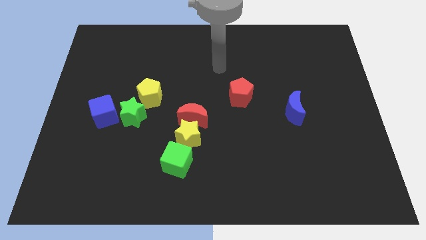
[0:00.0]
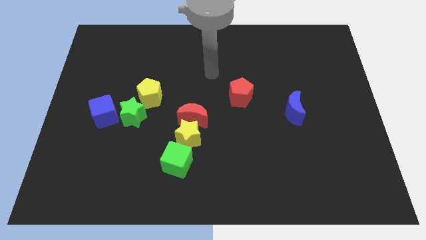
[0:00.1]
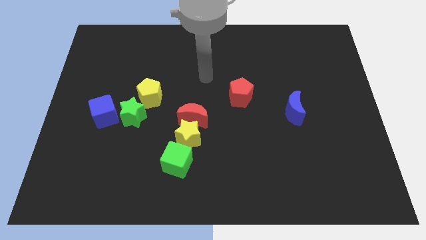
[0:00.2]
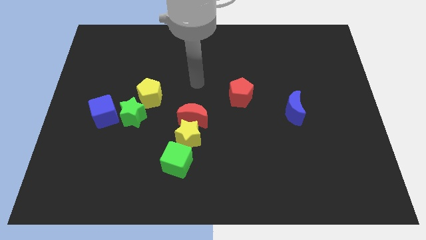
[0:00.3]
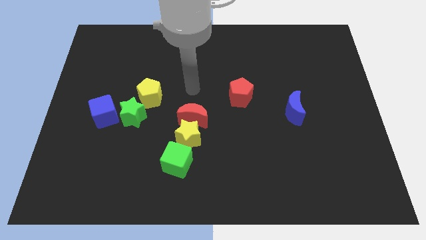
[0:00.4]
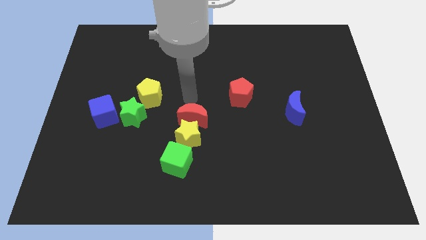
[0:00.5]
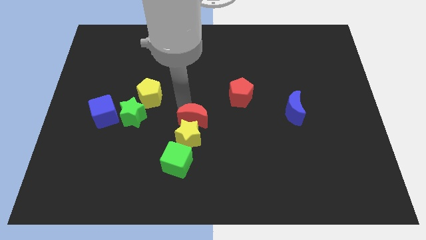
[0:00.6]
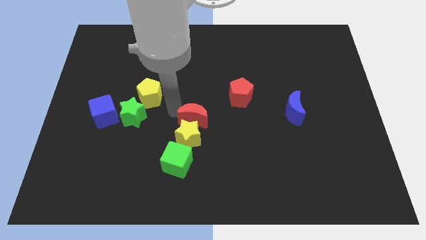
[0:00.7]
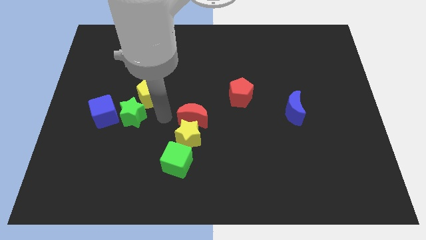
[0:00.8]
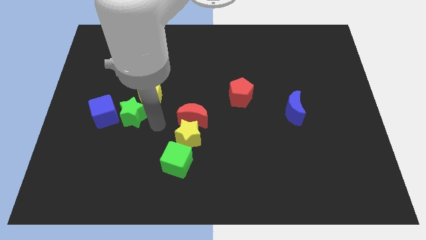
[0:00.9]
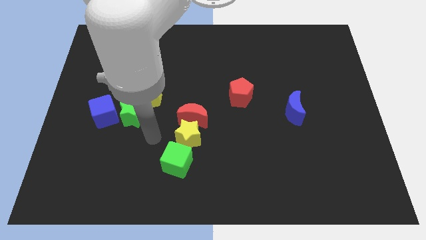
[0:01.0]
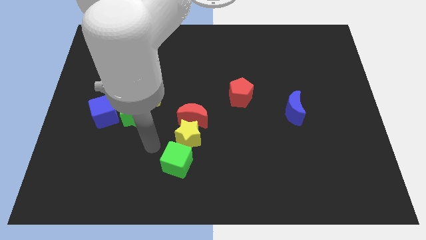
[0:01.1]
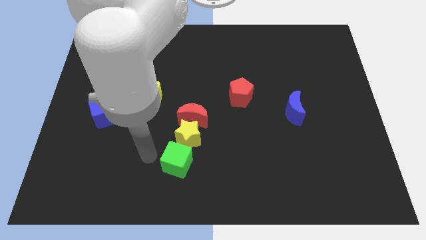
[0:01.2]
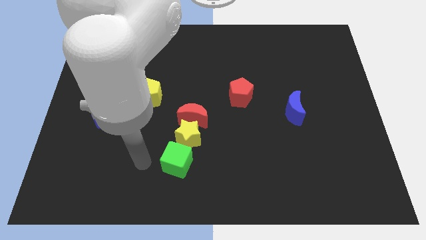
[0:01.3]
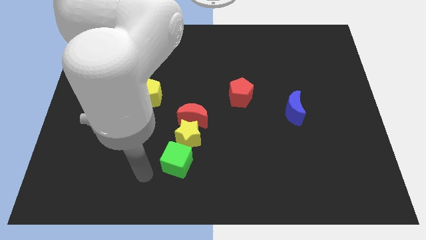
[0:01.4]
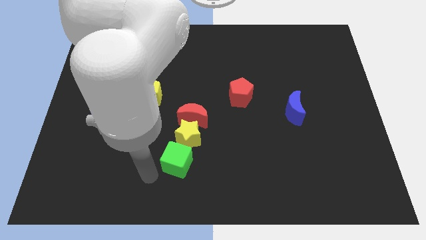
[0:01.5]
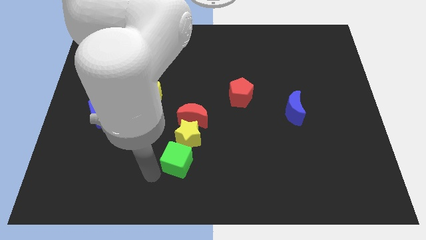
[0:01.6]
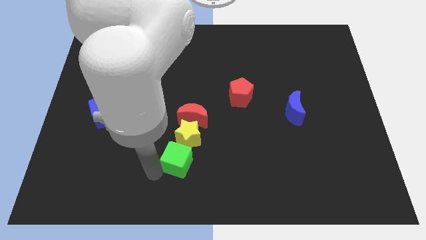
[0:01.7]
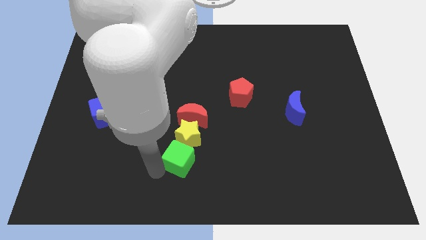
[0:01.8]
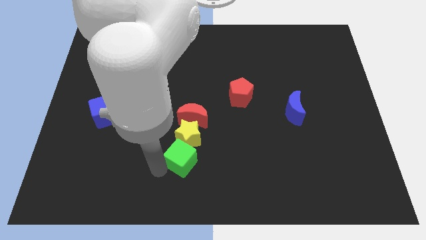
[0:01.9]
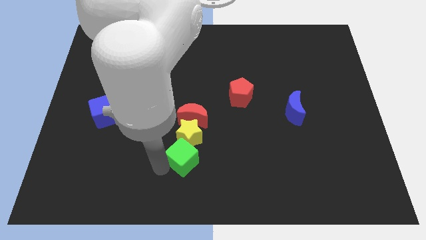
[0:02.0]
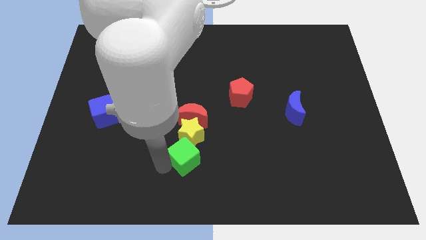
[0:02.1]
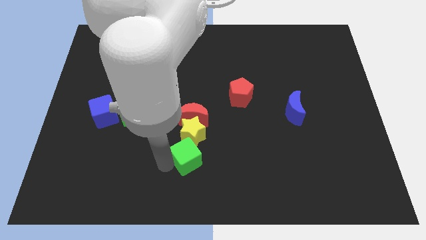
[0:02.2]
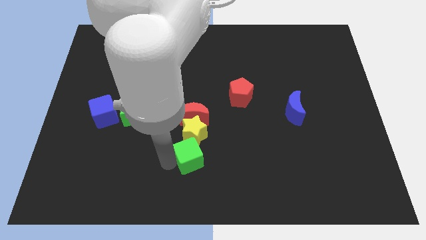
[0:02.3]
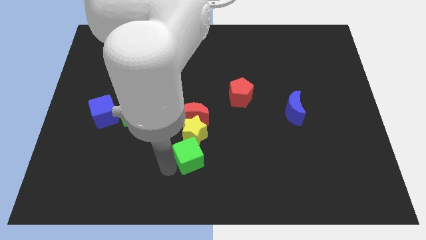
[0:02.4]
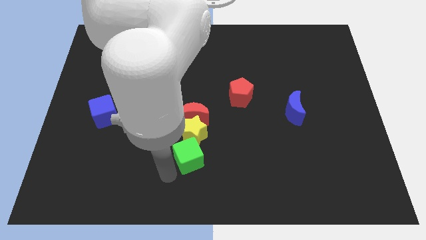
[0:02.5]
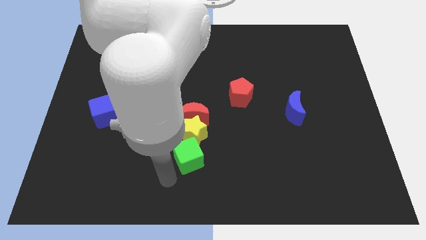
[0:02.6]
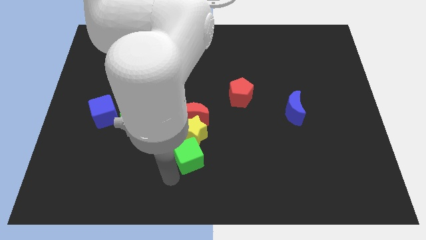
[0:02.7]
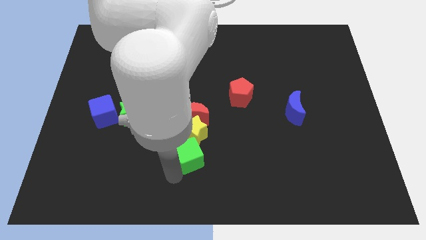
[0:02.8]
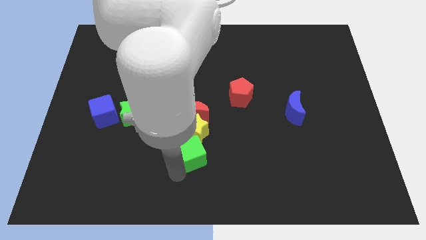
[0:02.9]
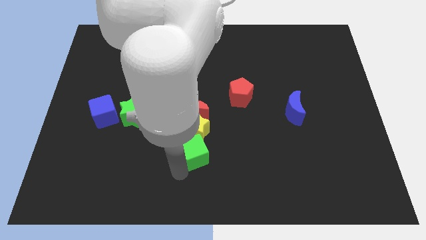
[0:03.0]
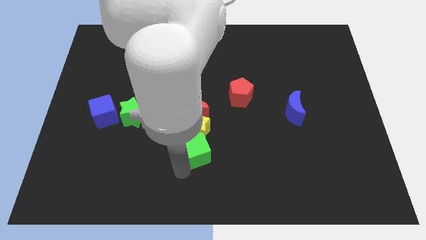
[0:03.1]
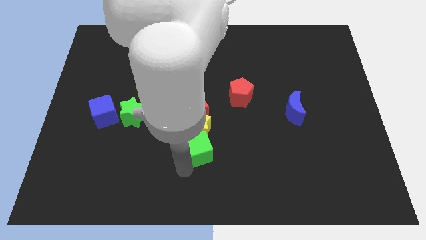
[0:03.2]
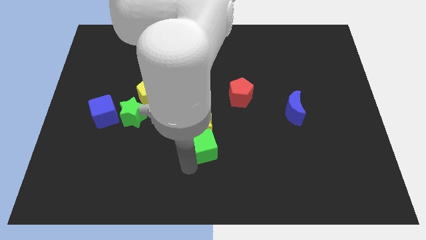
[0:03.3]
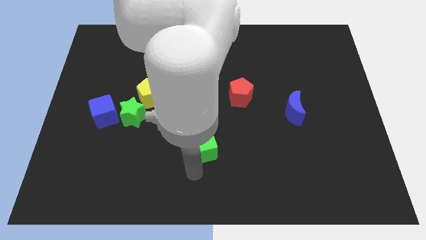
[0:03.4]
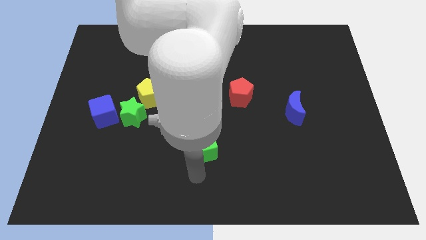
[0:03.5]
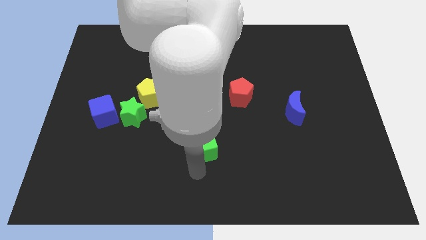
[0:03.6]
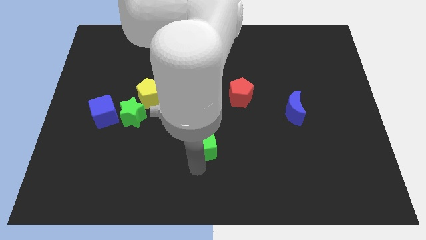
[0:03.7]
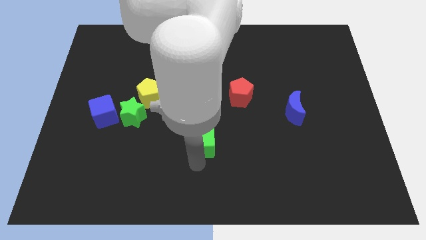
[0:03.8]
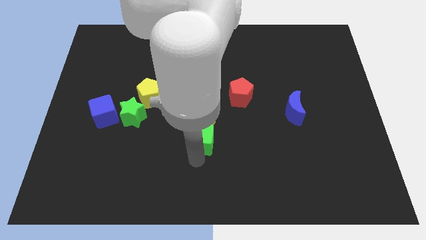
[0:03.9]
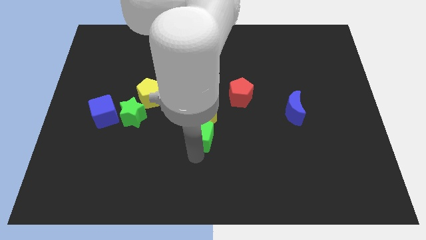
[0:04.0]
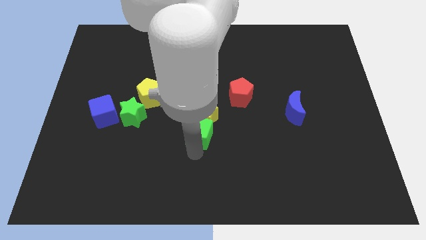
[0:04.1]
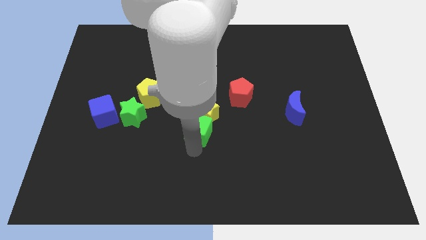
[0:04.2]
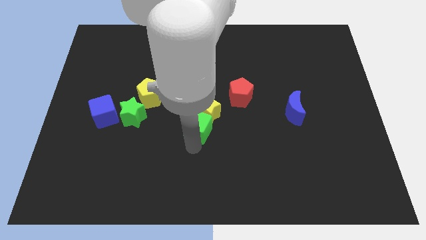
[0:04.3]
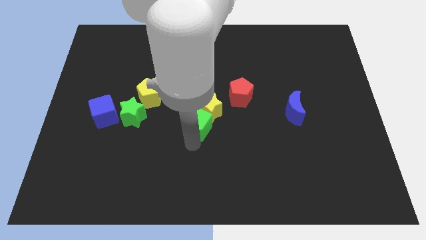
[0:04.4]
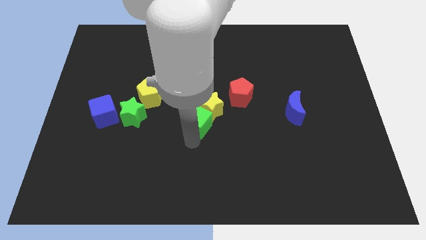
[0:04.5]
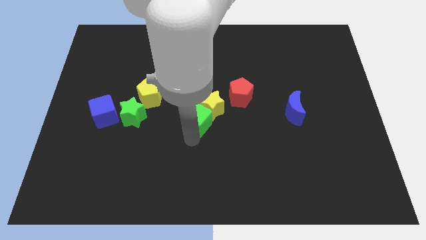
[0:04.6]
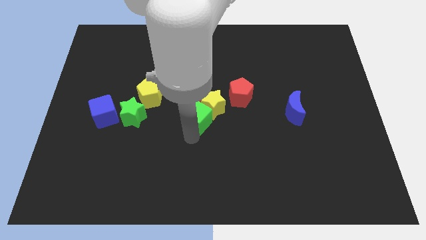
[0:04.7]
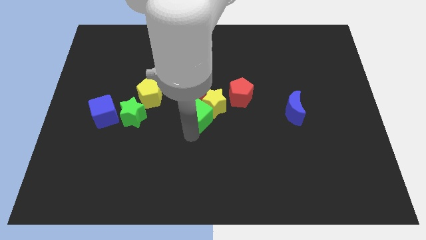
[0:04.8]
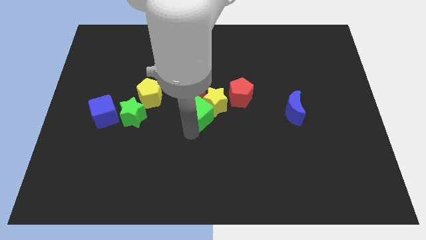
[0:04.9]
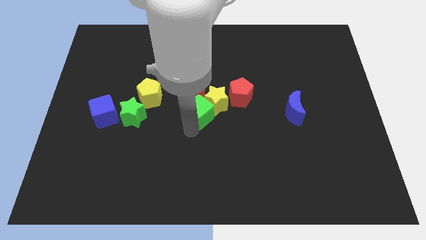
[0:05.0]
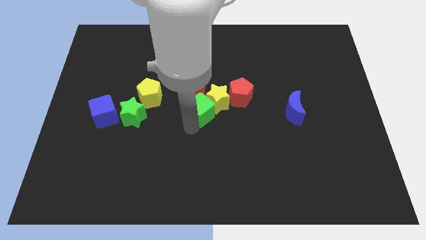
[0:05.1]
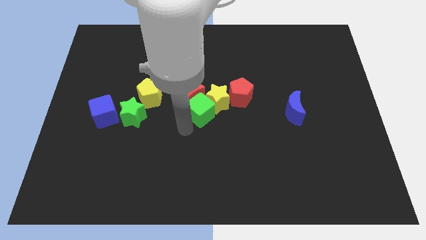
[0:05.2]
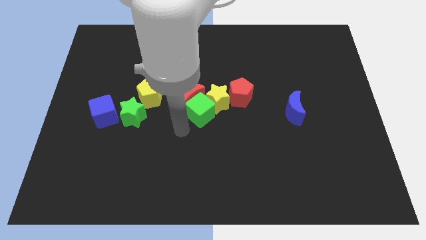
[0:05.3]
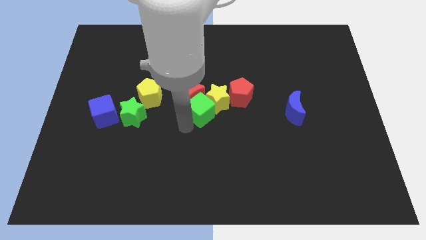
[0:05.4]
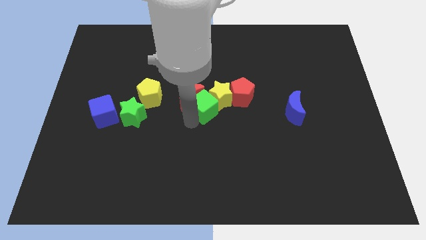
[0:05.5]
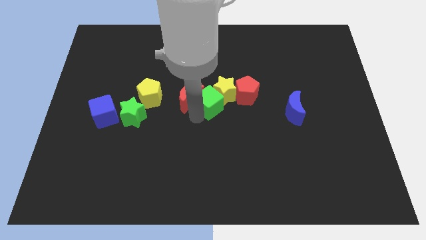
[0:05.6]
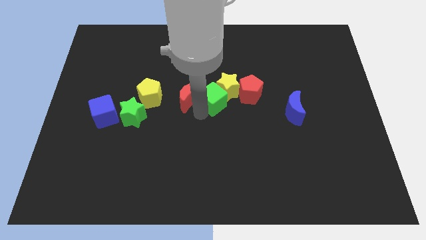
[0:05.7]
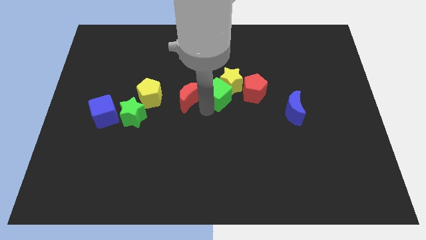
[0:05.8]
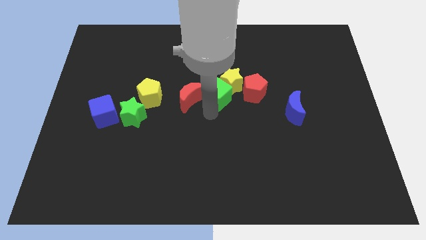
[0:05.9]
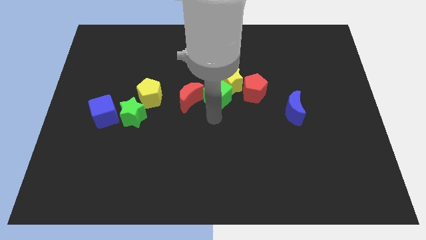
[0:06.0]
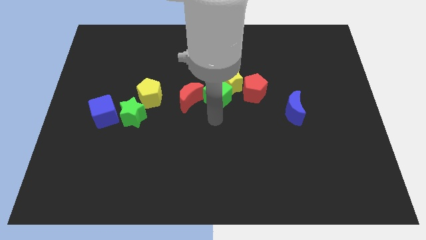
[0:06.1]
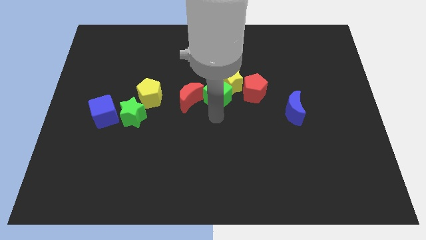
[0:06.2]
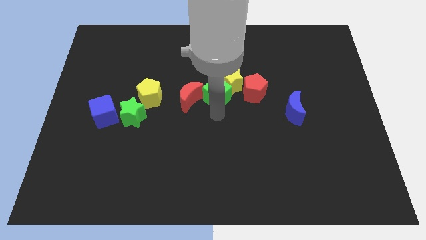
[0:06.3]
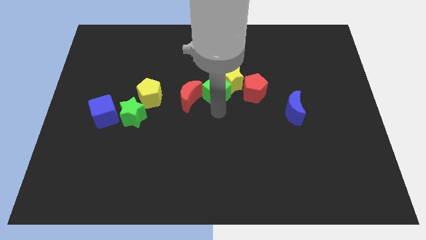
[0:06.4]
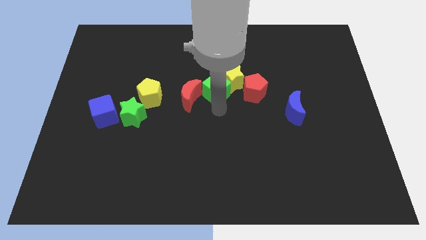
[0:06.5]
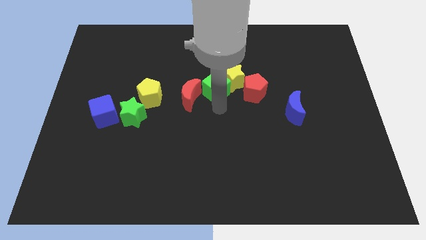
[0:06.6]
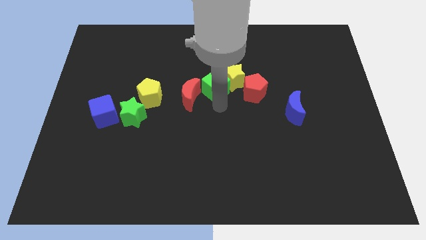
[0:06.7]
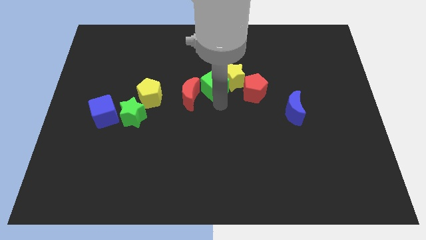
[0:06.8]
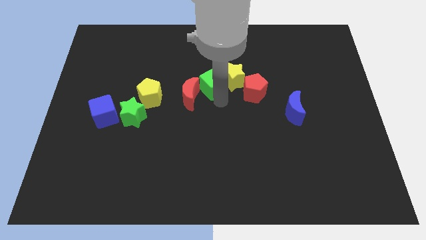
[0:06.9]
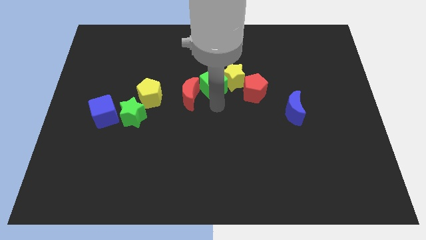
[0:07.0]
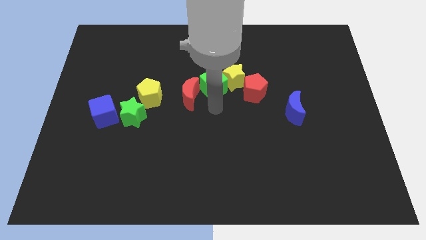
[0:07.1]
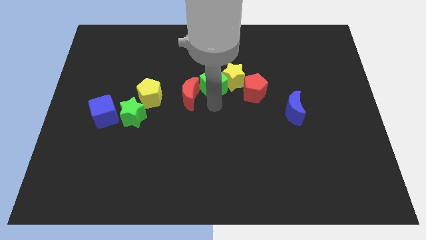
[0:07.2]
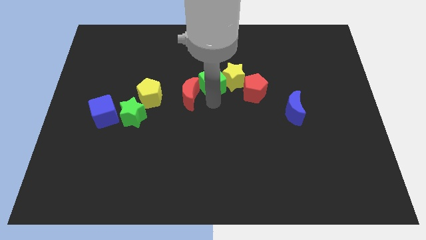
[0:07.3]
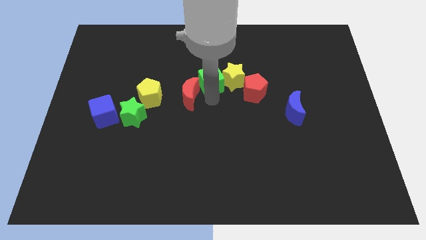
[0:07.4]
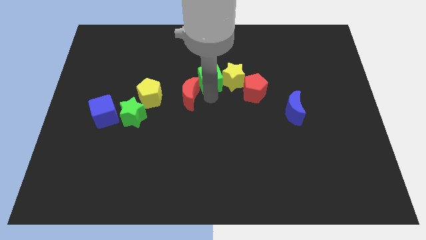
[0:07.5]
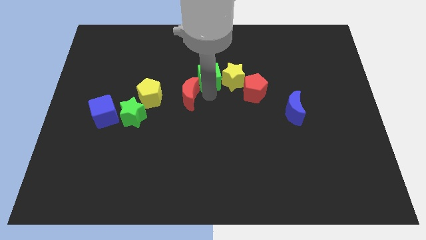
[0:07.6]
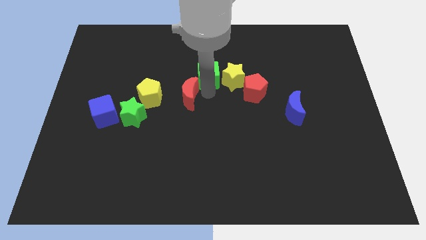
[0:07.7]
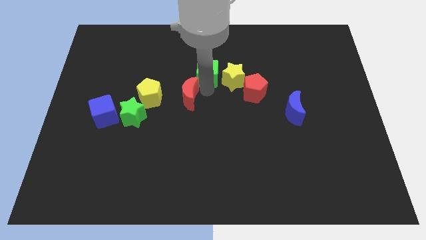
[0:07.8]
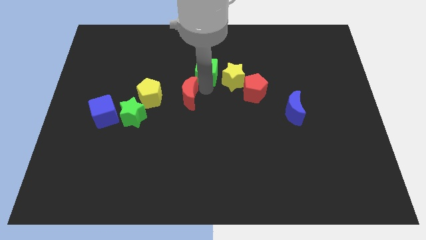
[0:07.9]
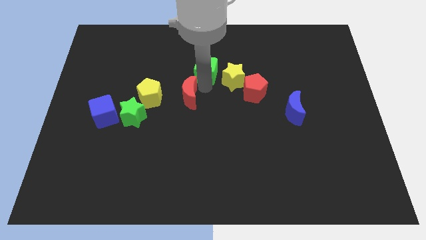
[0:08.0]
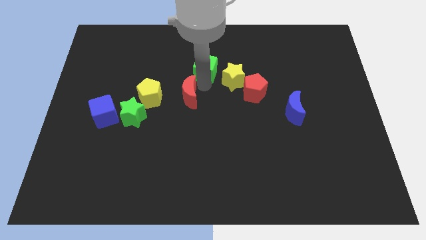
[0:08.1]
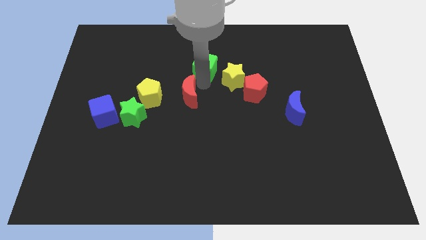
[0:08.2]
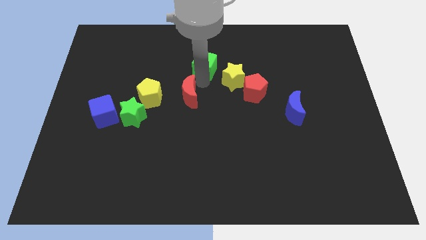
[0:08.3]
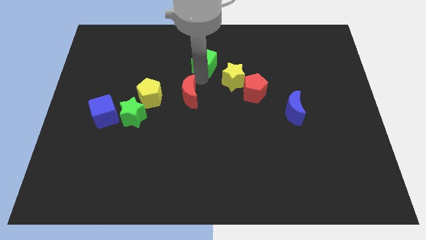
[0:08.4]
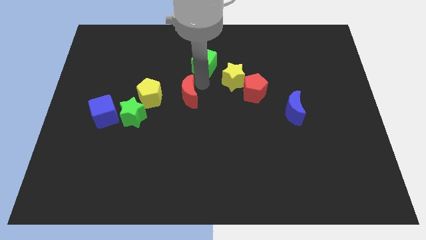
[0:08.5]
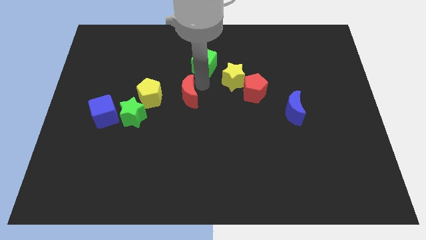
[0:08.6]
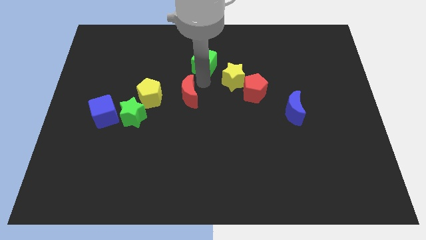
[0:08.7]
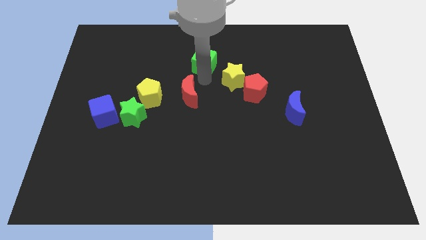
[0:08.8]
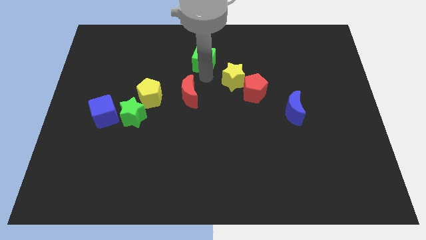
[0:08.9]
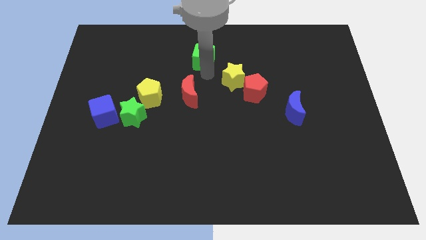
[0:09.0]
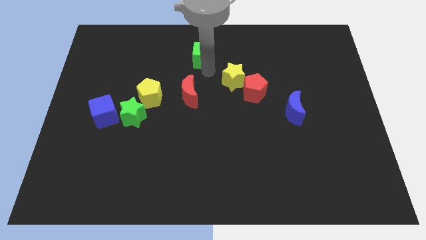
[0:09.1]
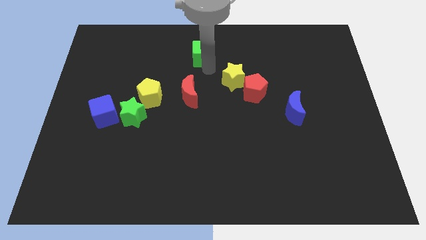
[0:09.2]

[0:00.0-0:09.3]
slide the green cube to the top side
